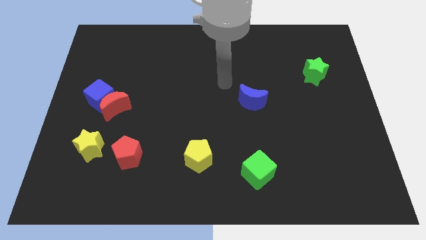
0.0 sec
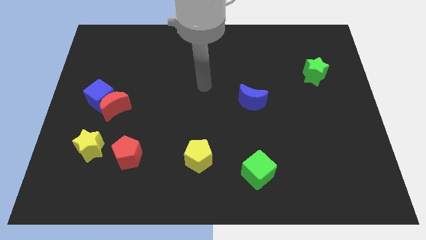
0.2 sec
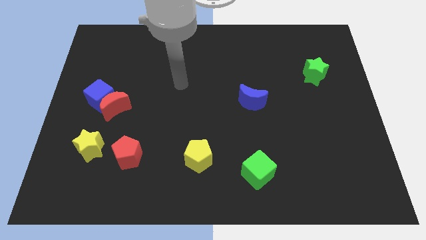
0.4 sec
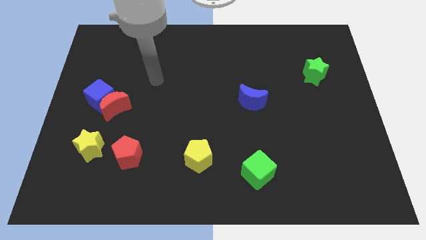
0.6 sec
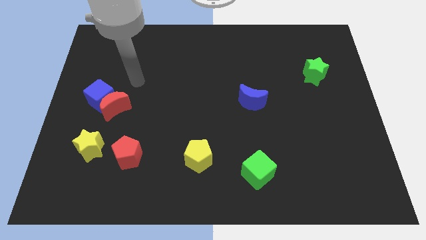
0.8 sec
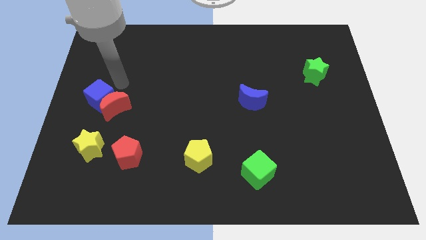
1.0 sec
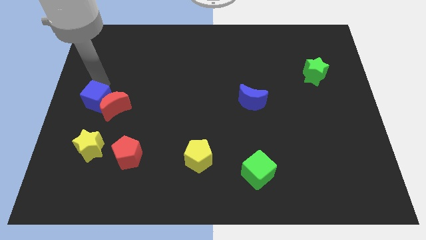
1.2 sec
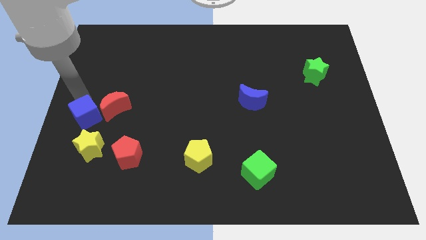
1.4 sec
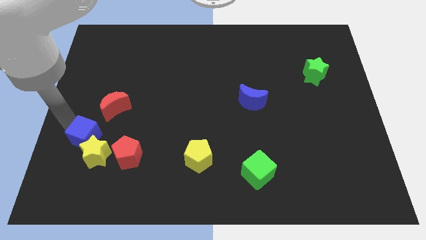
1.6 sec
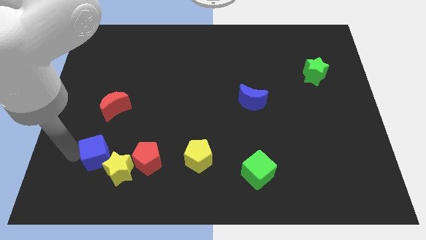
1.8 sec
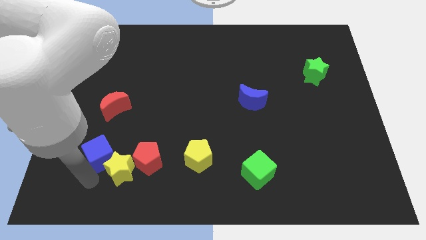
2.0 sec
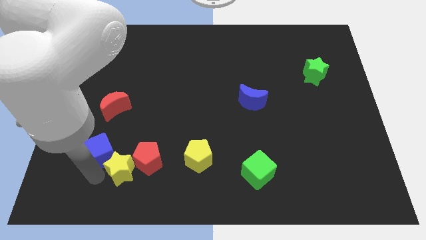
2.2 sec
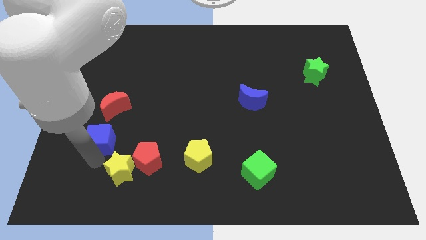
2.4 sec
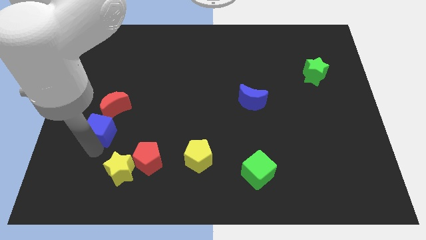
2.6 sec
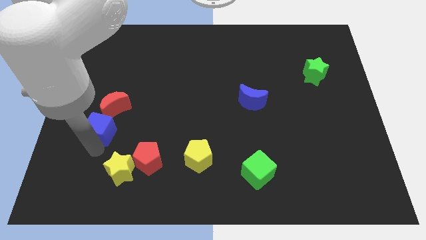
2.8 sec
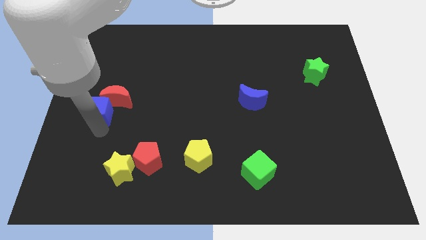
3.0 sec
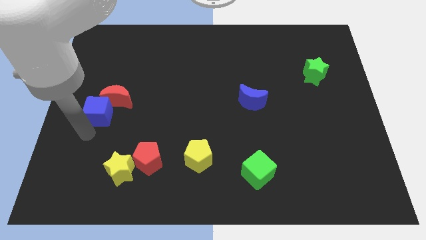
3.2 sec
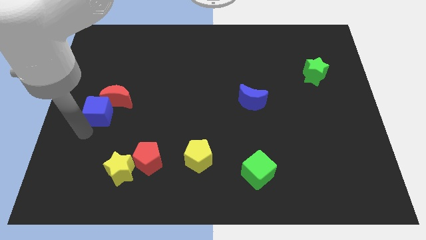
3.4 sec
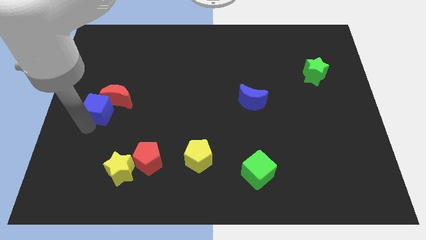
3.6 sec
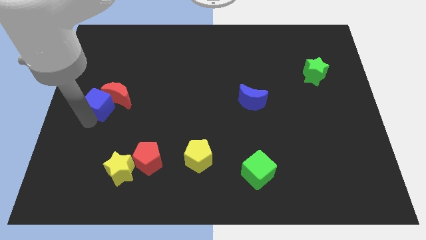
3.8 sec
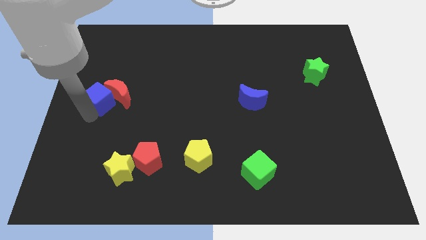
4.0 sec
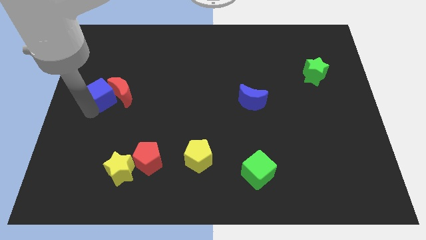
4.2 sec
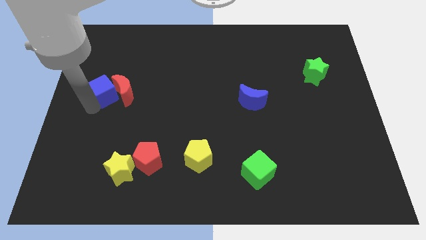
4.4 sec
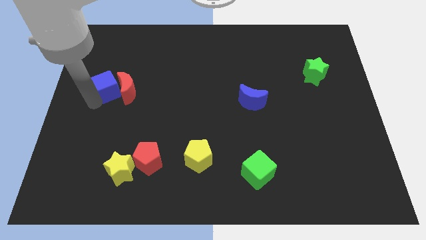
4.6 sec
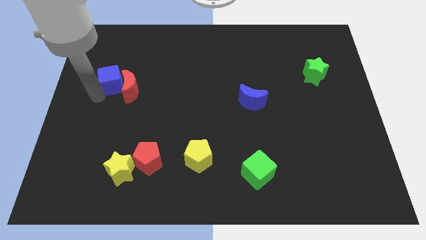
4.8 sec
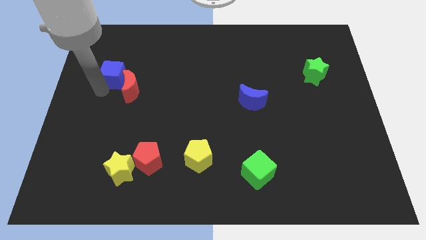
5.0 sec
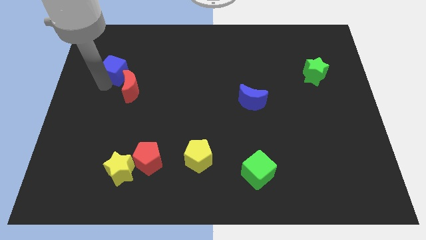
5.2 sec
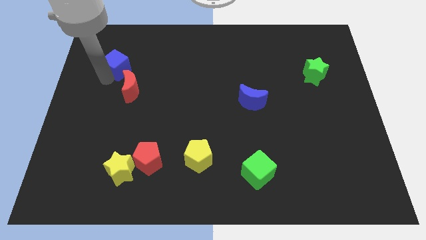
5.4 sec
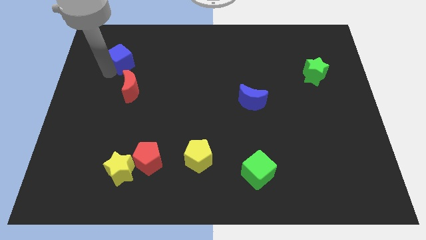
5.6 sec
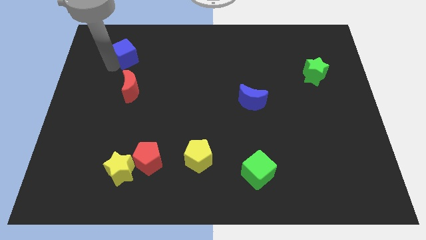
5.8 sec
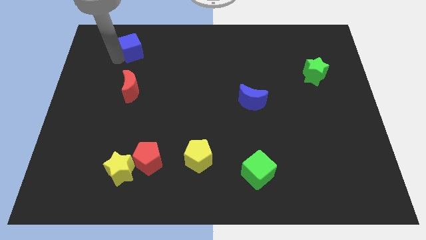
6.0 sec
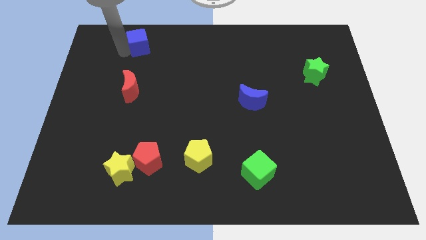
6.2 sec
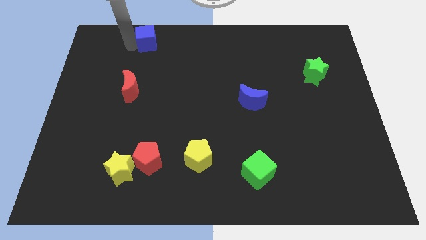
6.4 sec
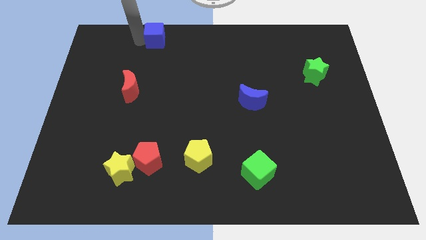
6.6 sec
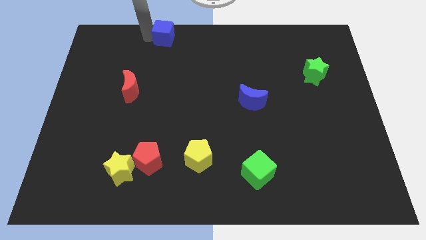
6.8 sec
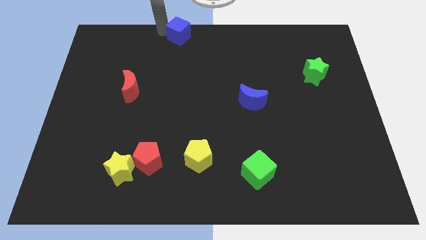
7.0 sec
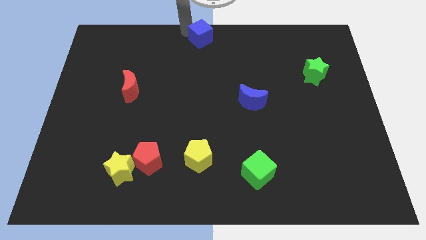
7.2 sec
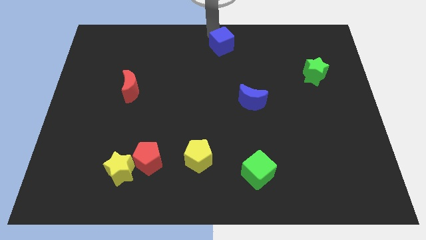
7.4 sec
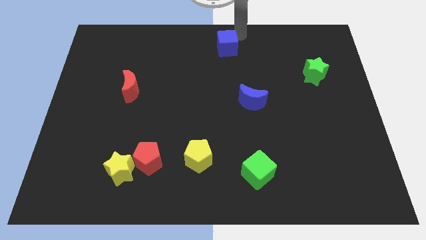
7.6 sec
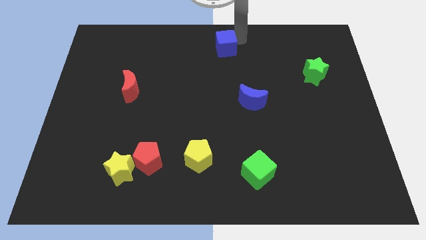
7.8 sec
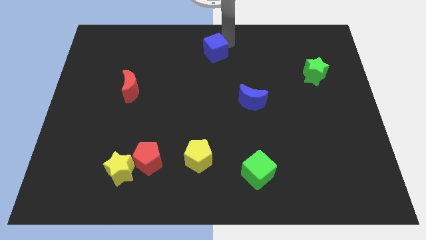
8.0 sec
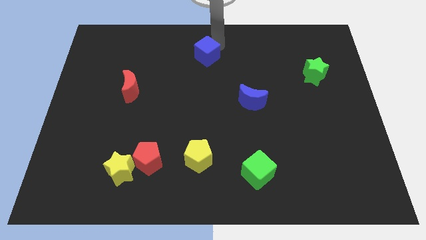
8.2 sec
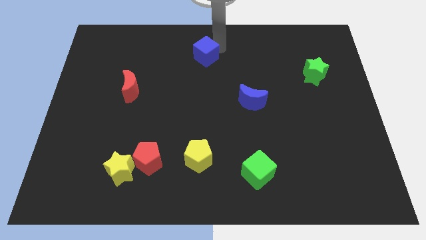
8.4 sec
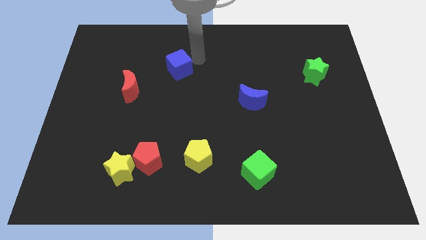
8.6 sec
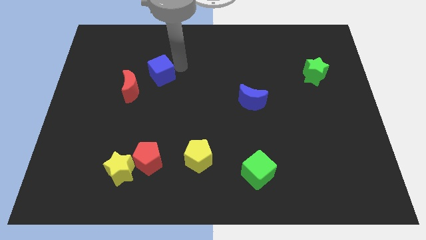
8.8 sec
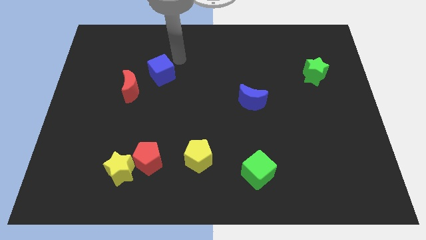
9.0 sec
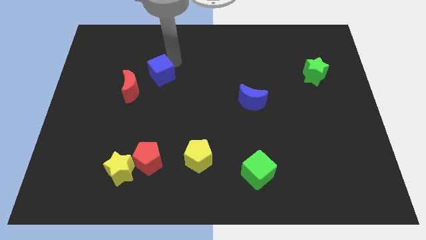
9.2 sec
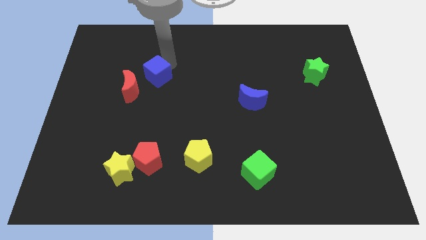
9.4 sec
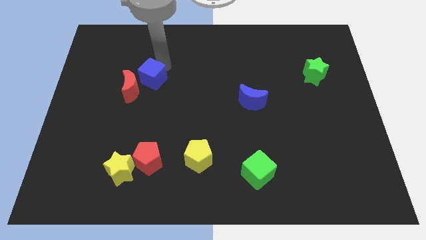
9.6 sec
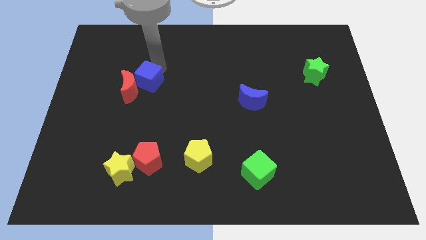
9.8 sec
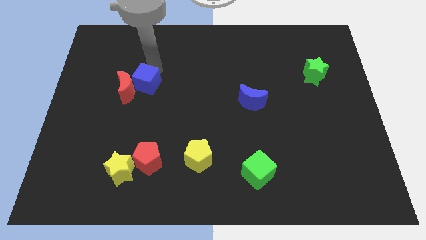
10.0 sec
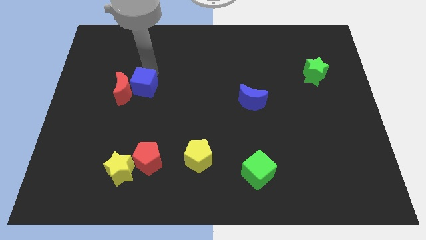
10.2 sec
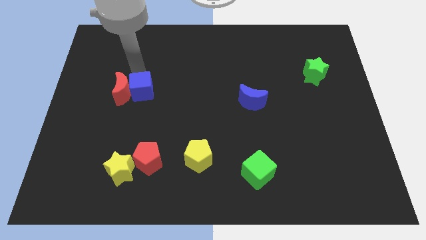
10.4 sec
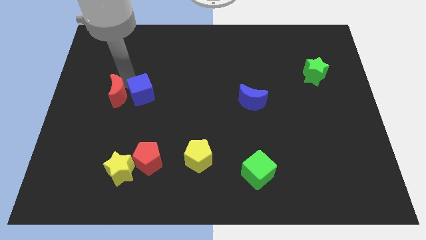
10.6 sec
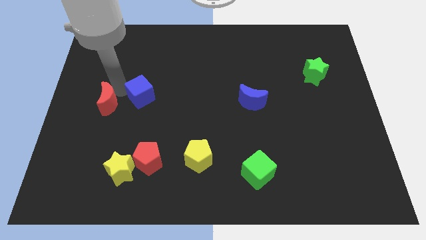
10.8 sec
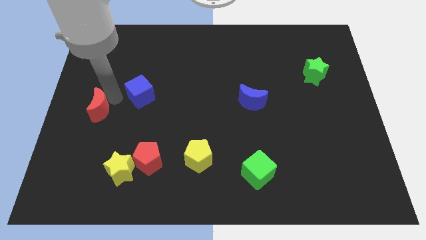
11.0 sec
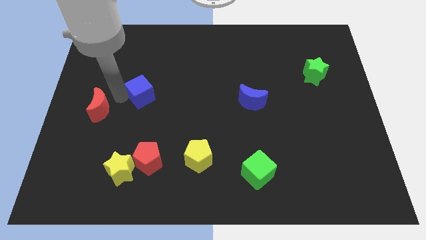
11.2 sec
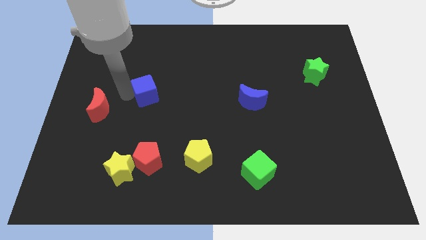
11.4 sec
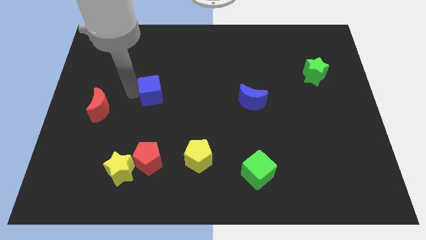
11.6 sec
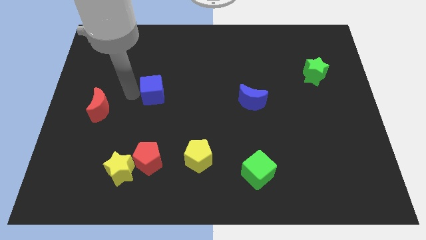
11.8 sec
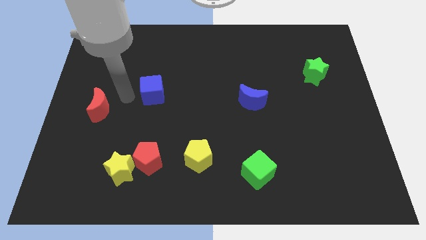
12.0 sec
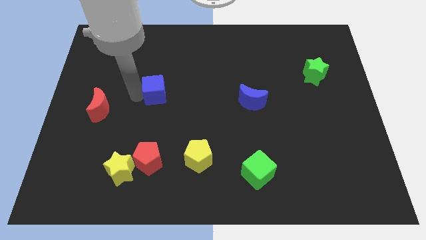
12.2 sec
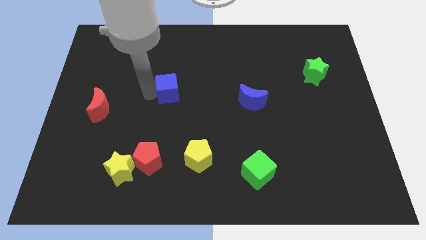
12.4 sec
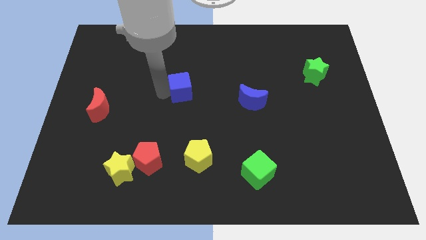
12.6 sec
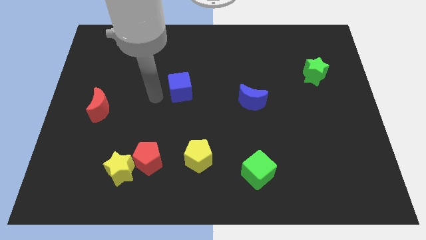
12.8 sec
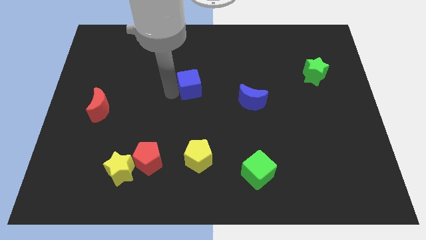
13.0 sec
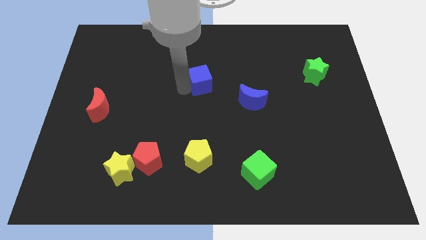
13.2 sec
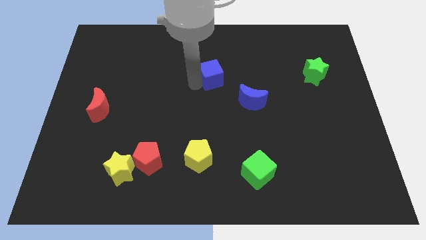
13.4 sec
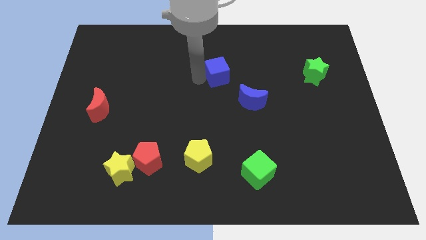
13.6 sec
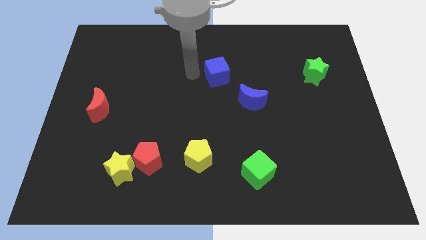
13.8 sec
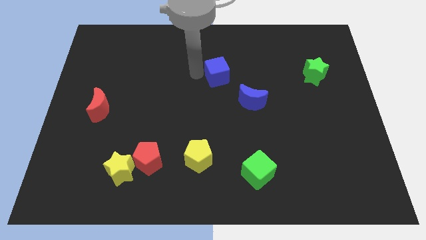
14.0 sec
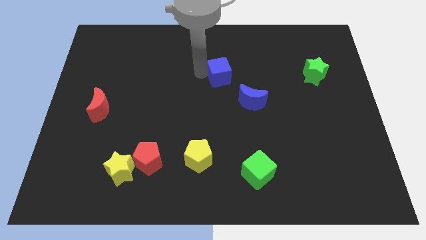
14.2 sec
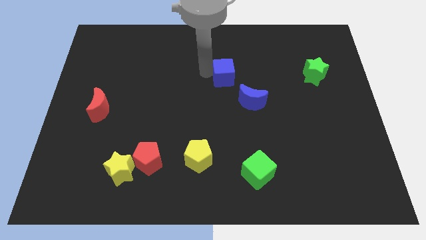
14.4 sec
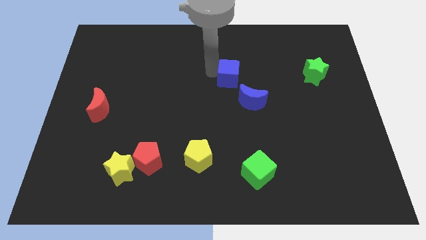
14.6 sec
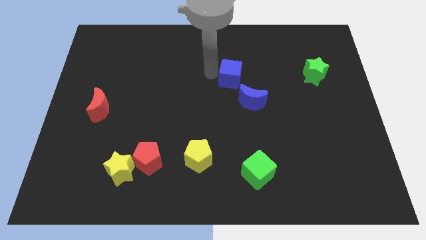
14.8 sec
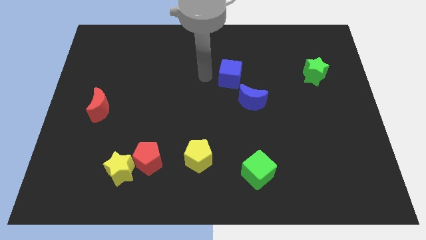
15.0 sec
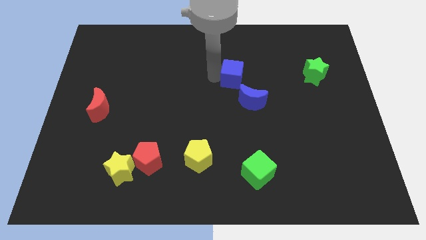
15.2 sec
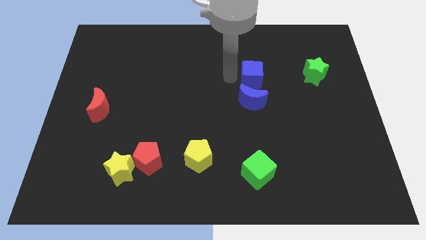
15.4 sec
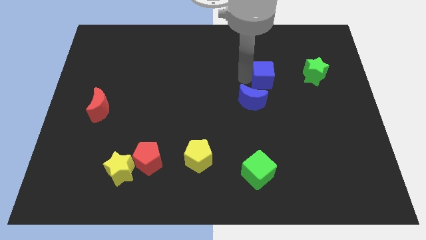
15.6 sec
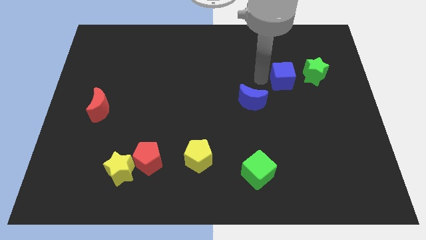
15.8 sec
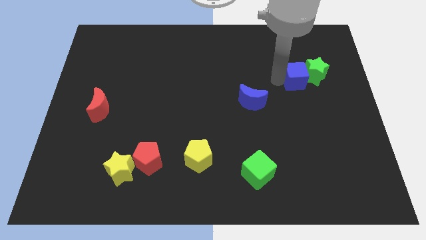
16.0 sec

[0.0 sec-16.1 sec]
put the blue cube next to the green star
